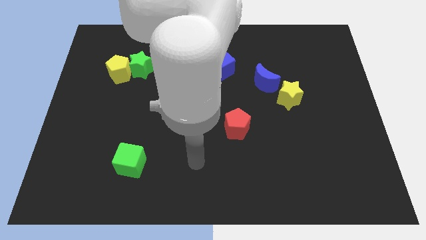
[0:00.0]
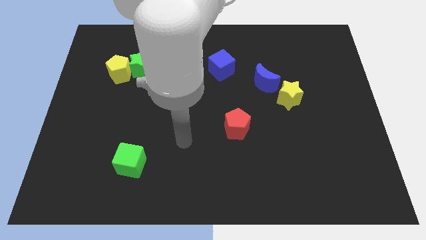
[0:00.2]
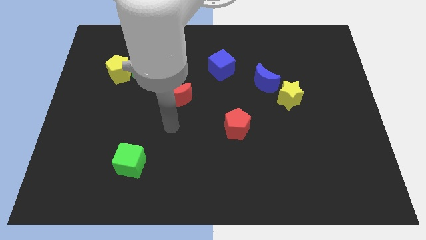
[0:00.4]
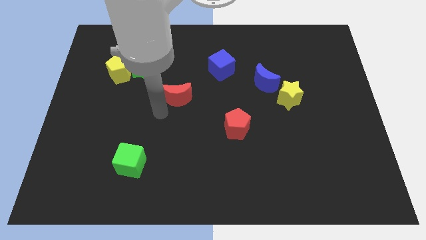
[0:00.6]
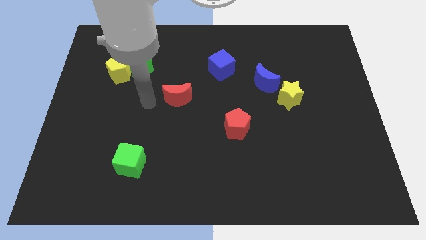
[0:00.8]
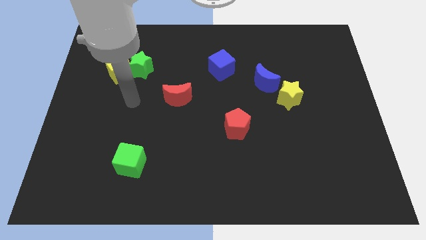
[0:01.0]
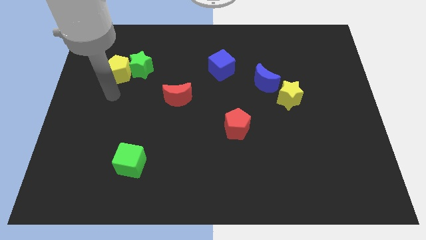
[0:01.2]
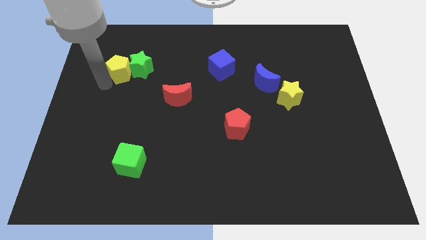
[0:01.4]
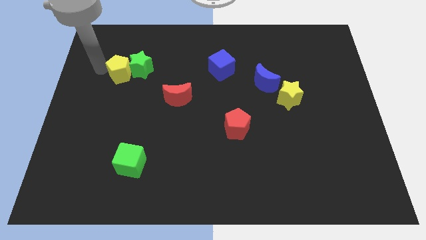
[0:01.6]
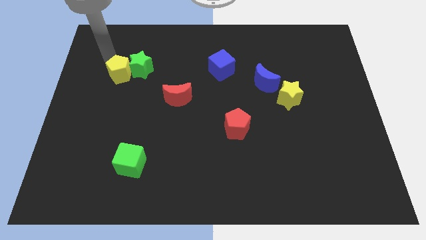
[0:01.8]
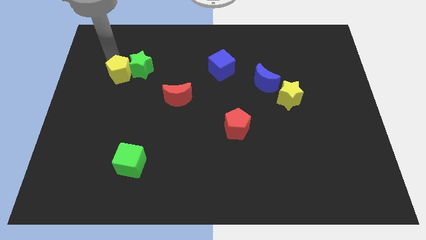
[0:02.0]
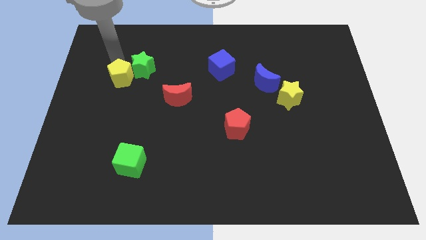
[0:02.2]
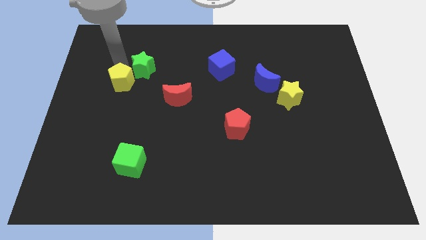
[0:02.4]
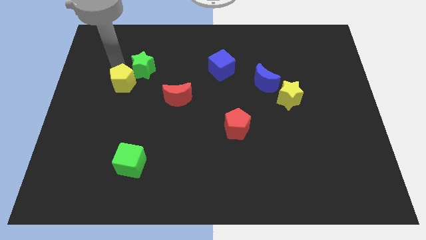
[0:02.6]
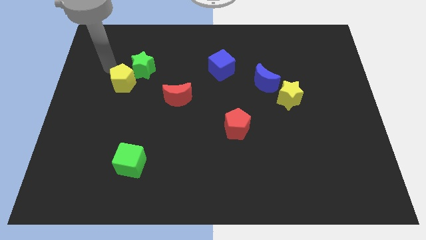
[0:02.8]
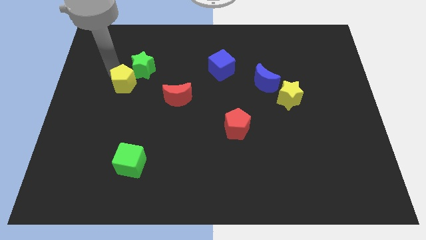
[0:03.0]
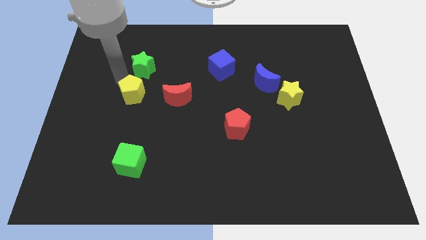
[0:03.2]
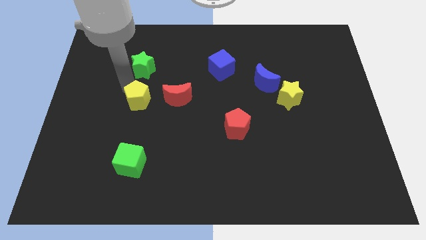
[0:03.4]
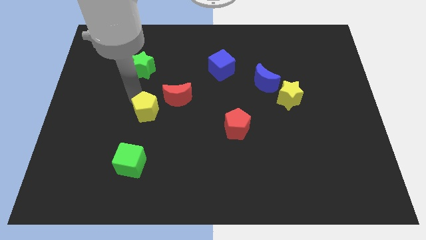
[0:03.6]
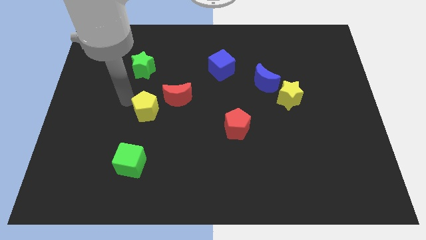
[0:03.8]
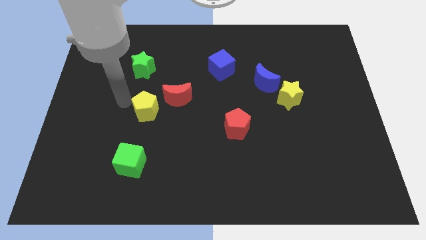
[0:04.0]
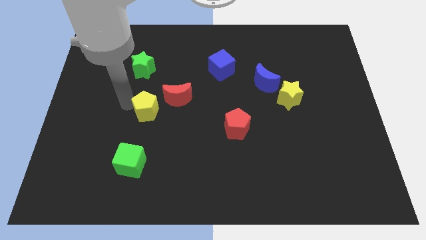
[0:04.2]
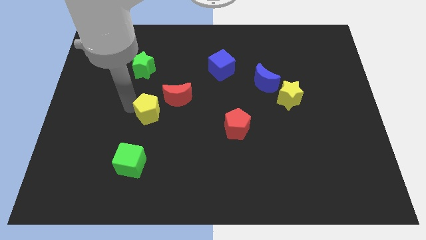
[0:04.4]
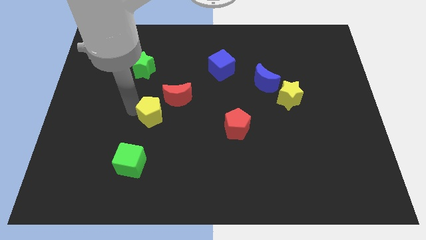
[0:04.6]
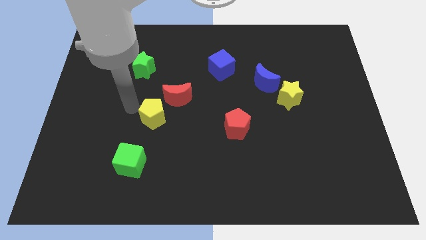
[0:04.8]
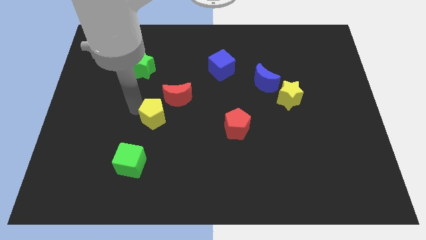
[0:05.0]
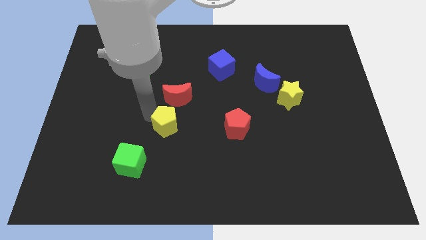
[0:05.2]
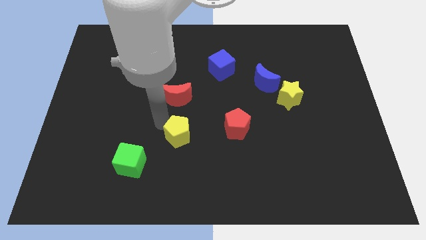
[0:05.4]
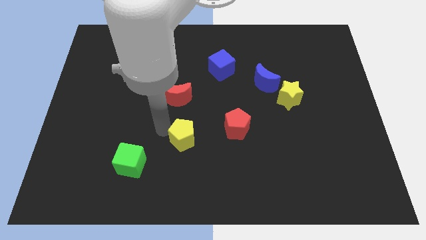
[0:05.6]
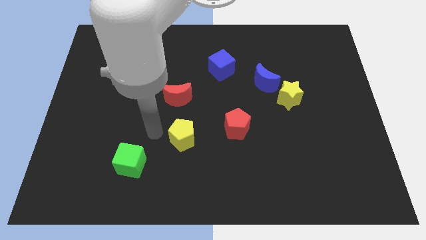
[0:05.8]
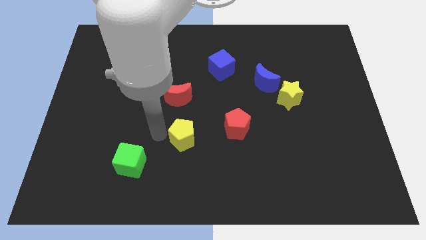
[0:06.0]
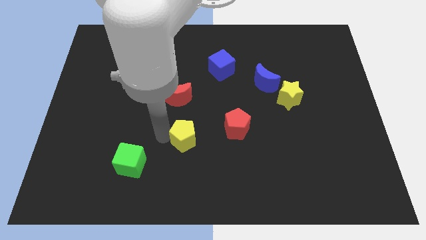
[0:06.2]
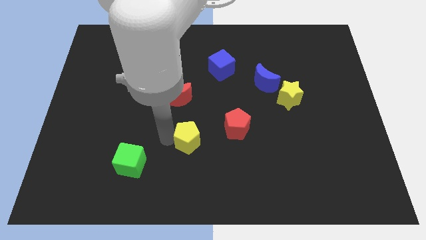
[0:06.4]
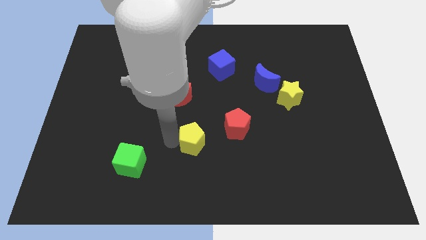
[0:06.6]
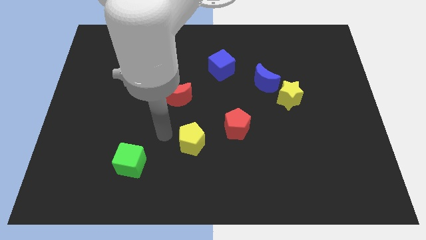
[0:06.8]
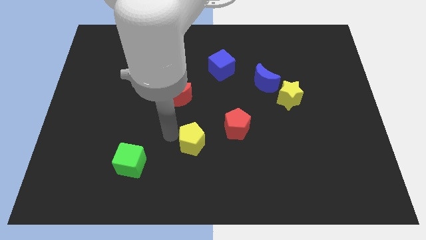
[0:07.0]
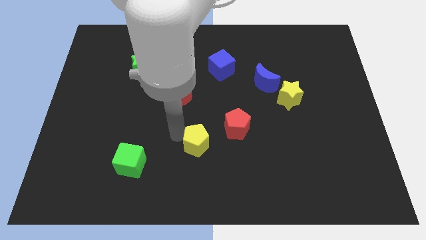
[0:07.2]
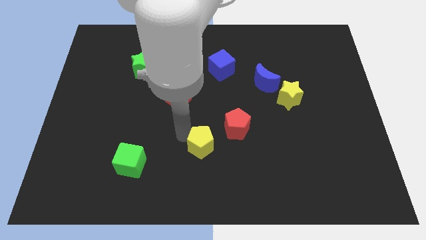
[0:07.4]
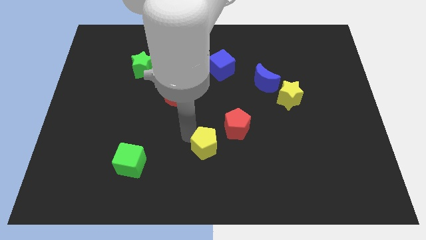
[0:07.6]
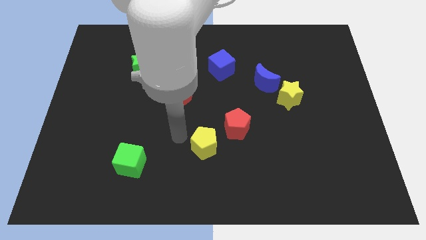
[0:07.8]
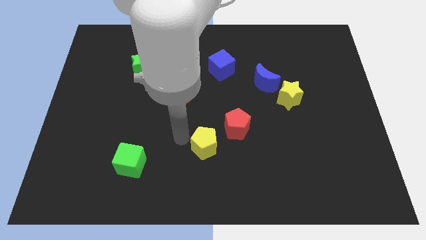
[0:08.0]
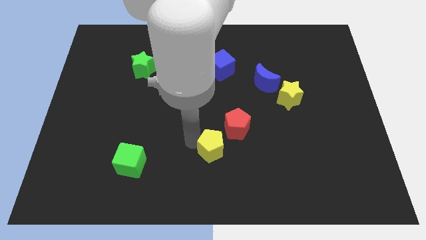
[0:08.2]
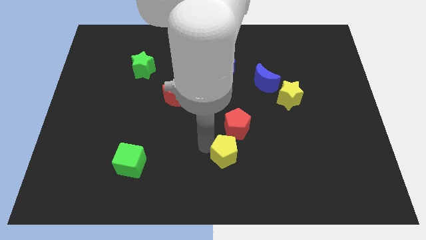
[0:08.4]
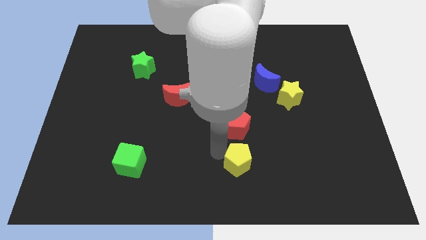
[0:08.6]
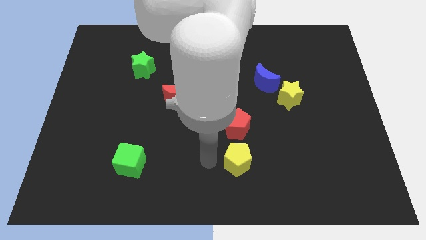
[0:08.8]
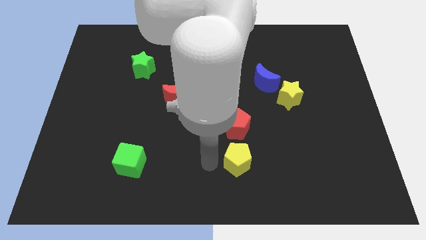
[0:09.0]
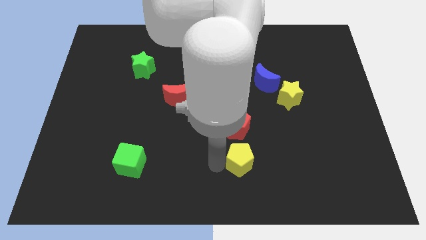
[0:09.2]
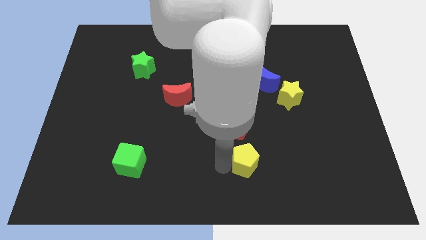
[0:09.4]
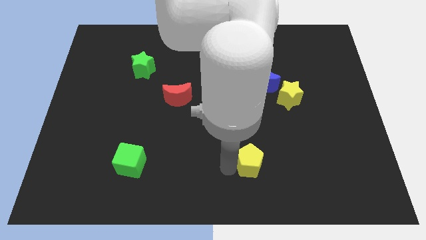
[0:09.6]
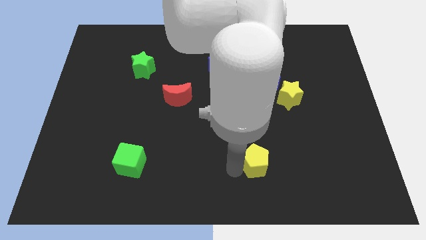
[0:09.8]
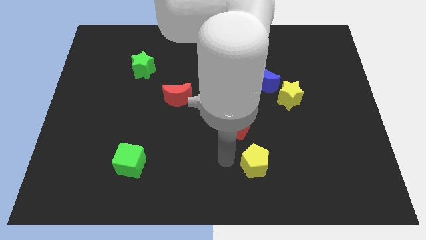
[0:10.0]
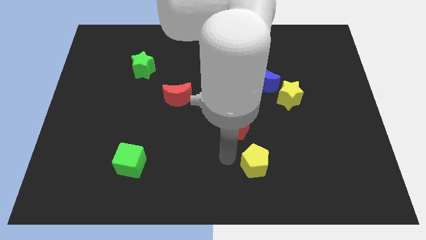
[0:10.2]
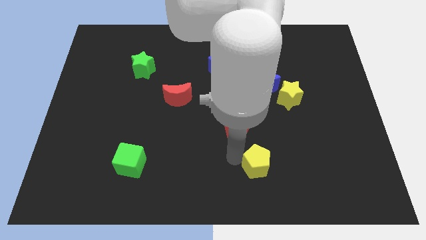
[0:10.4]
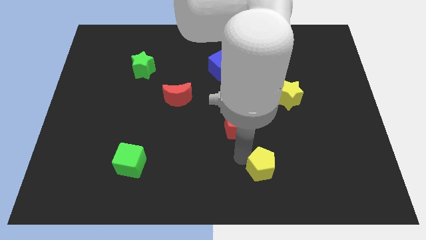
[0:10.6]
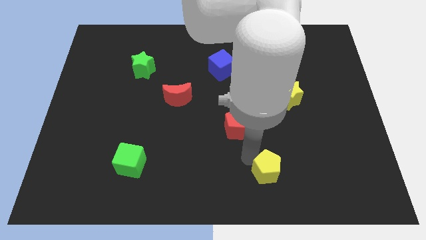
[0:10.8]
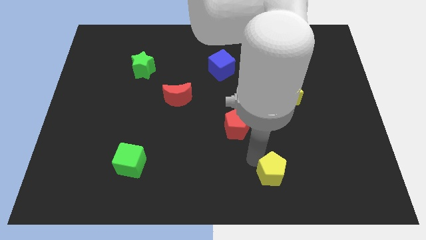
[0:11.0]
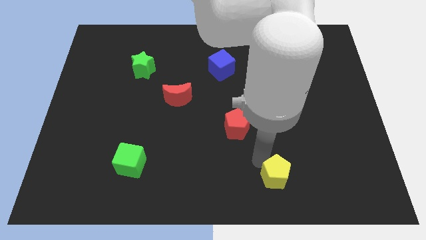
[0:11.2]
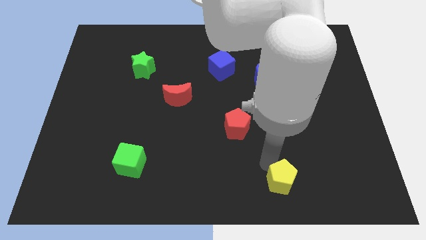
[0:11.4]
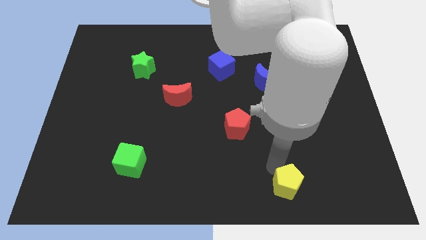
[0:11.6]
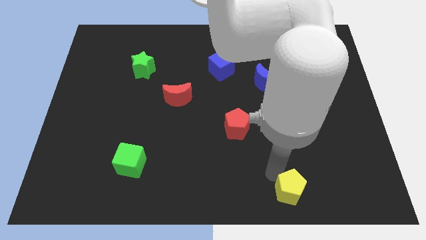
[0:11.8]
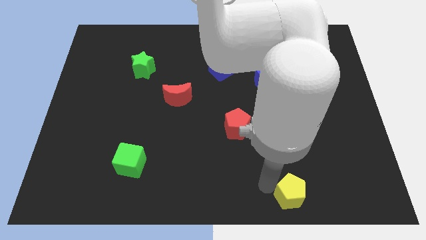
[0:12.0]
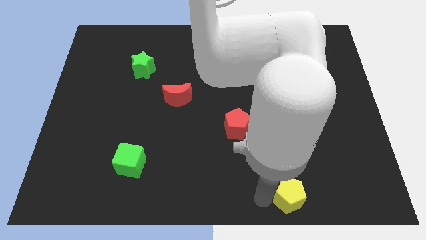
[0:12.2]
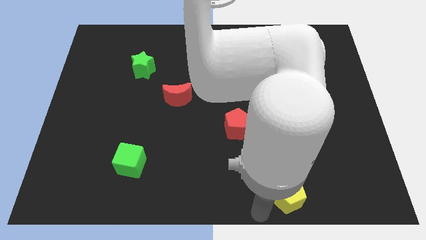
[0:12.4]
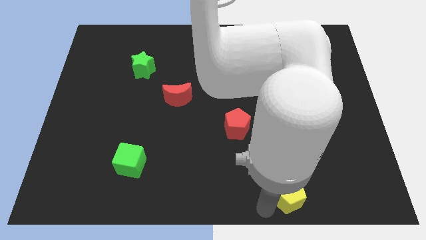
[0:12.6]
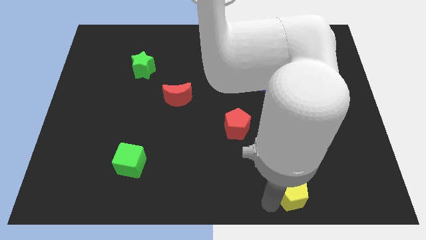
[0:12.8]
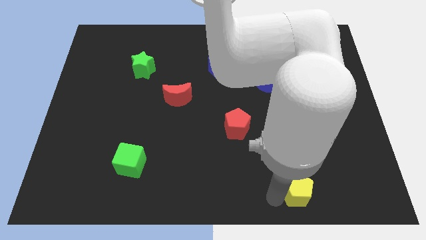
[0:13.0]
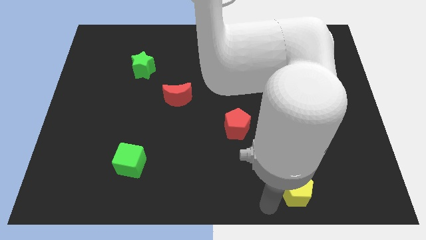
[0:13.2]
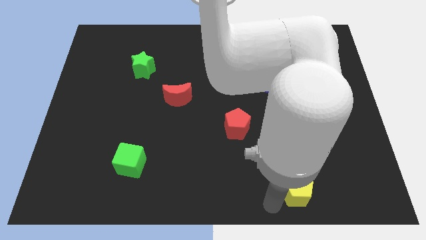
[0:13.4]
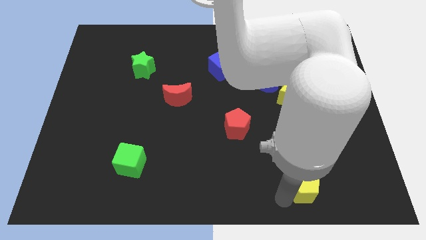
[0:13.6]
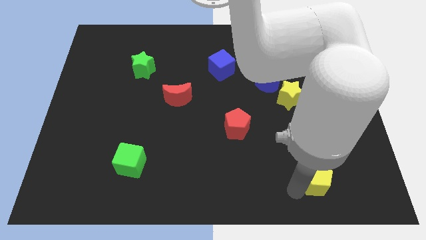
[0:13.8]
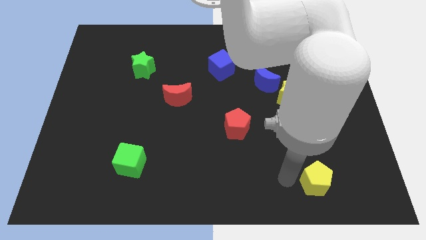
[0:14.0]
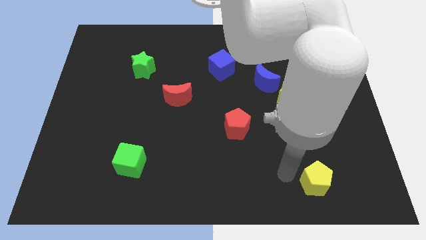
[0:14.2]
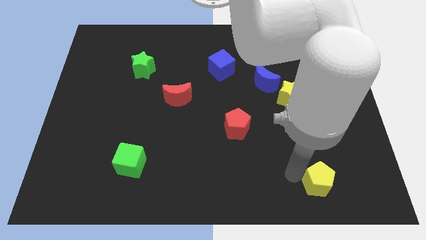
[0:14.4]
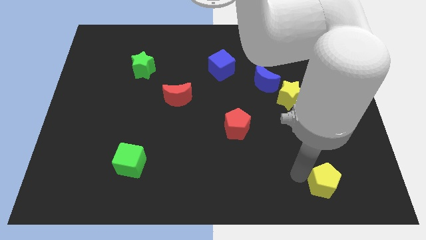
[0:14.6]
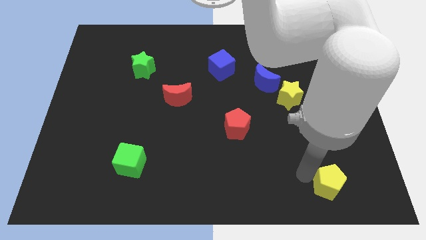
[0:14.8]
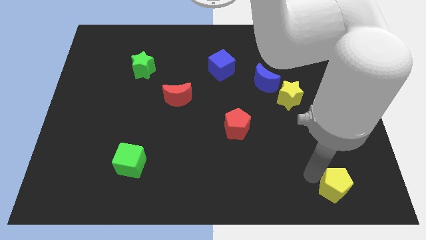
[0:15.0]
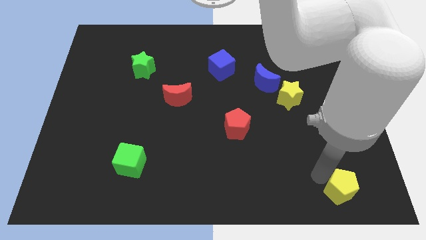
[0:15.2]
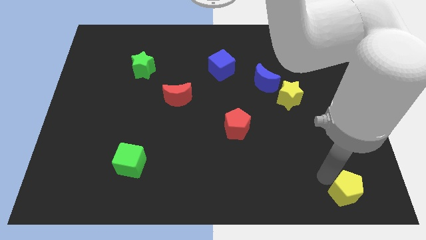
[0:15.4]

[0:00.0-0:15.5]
slide the yellow pentagon to the lower right corner
